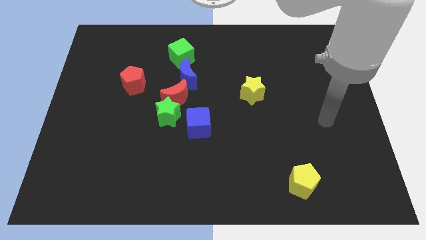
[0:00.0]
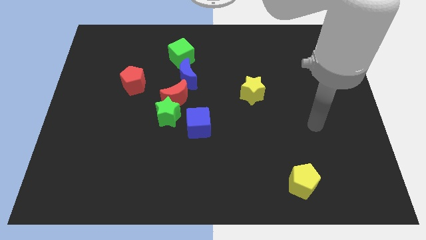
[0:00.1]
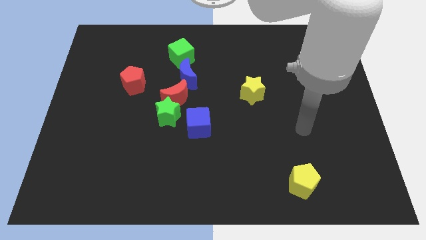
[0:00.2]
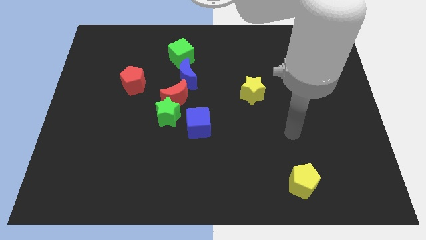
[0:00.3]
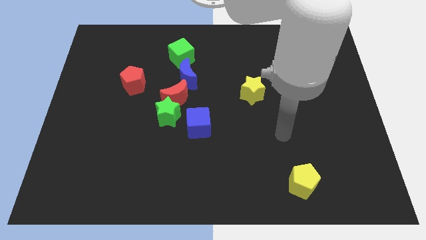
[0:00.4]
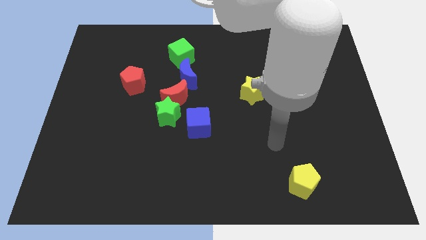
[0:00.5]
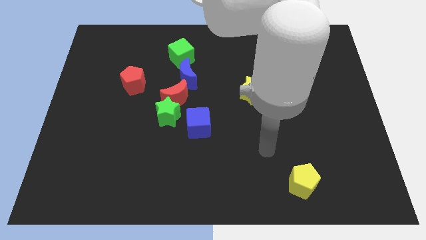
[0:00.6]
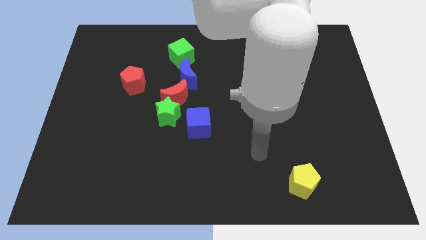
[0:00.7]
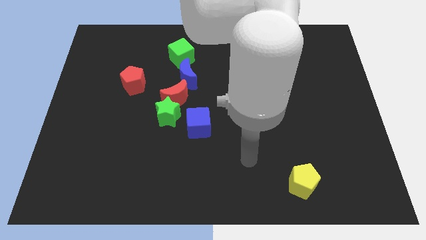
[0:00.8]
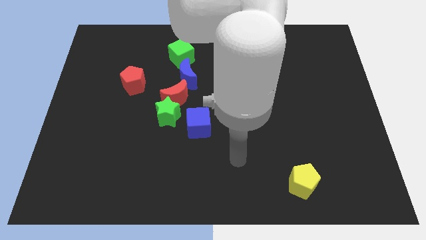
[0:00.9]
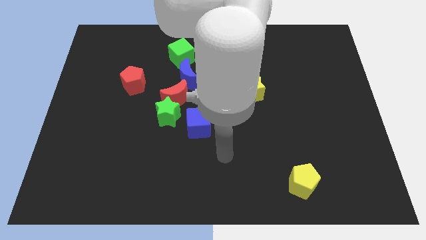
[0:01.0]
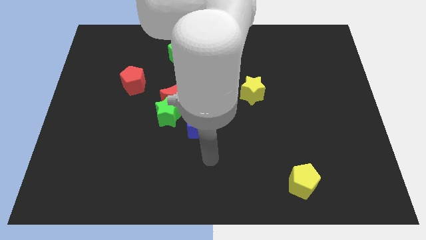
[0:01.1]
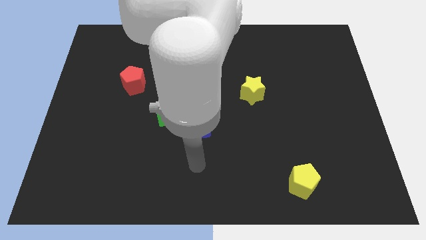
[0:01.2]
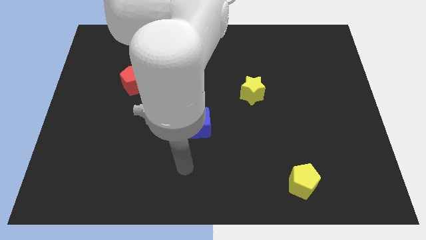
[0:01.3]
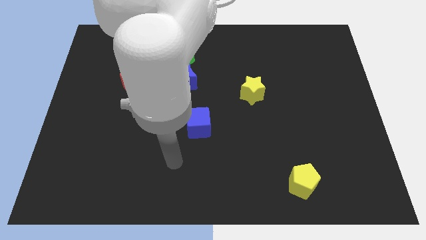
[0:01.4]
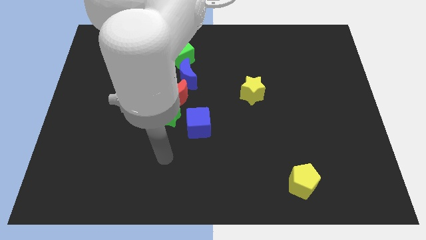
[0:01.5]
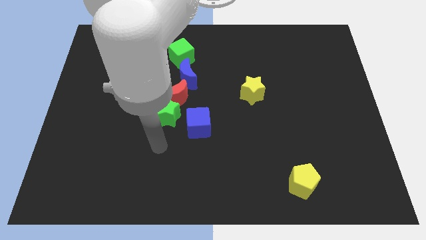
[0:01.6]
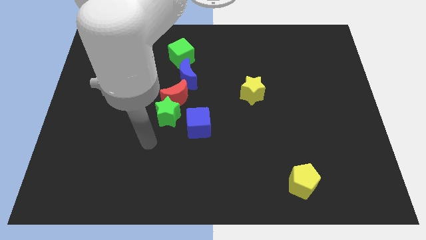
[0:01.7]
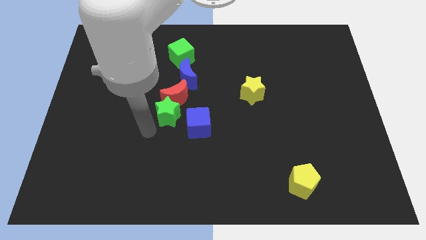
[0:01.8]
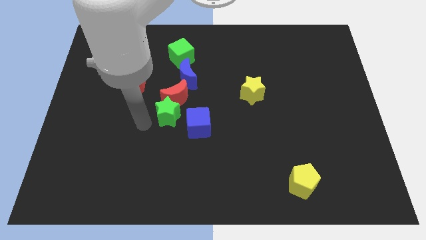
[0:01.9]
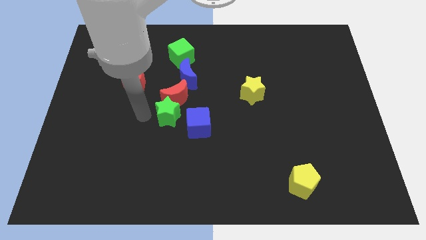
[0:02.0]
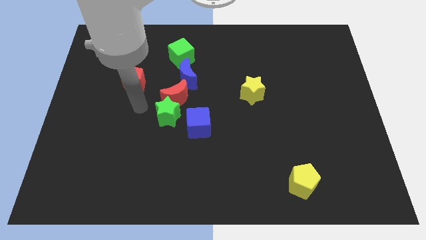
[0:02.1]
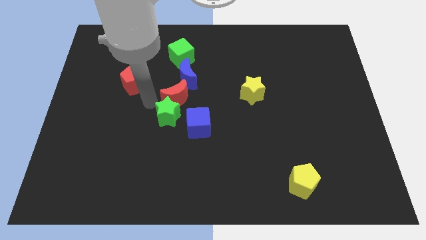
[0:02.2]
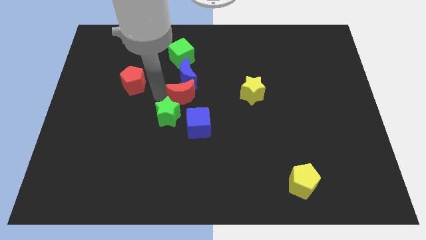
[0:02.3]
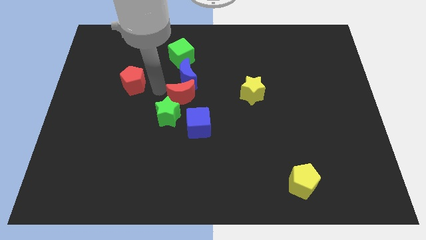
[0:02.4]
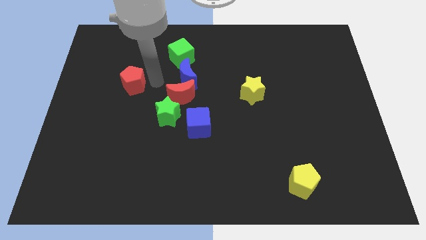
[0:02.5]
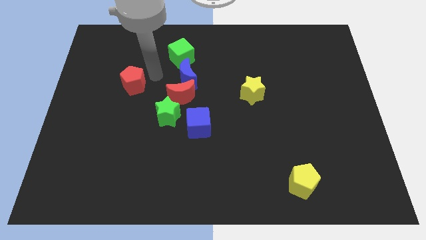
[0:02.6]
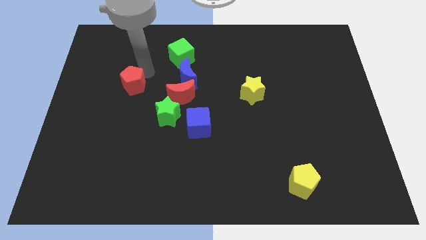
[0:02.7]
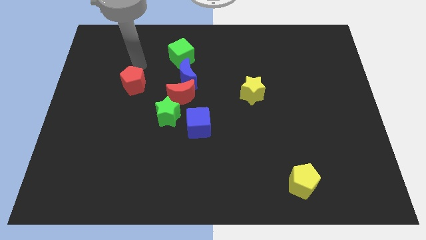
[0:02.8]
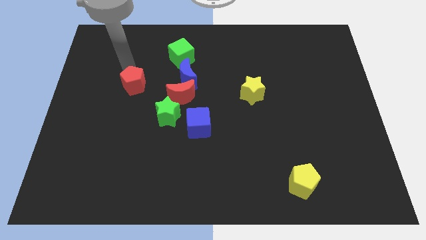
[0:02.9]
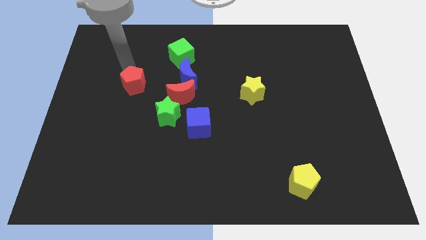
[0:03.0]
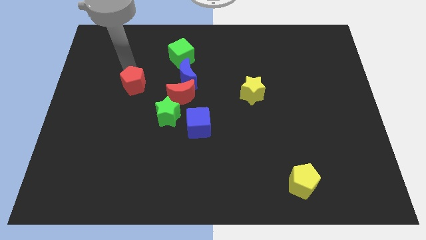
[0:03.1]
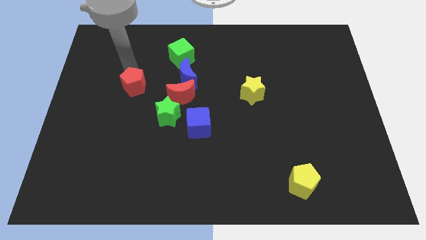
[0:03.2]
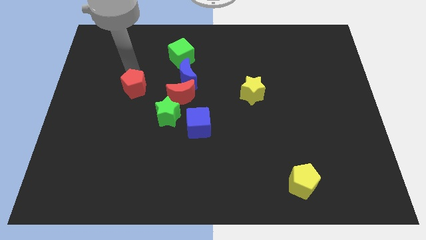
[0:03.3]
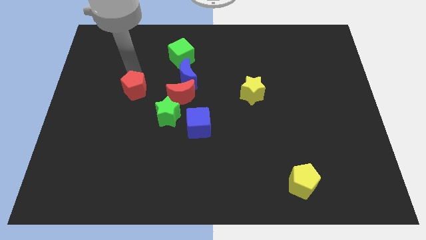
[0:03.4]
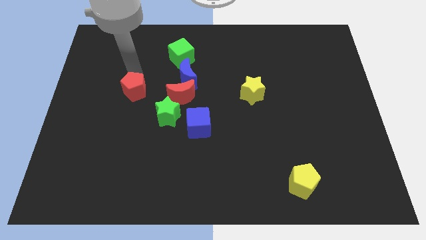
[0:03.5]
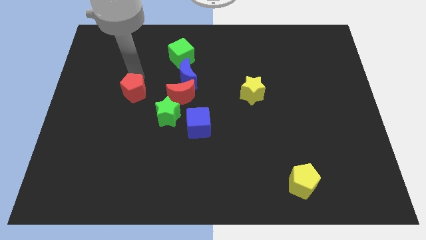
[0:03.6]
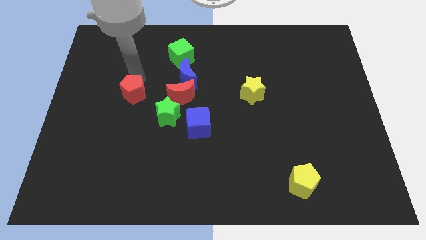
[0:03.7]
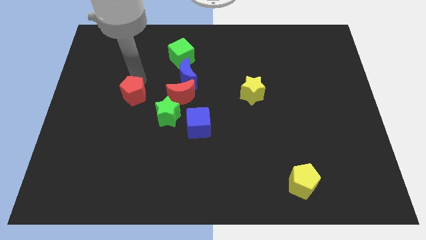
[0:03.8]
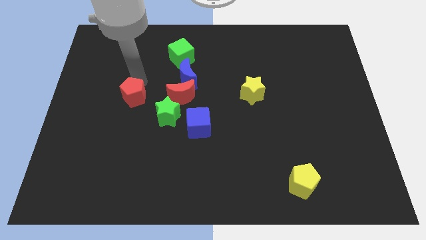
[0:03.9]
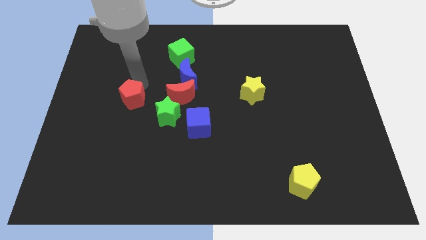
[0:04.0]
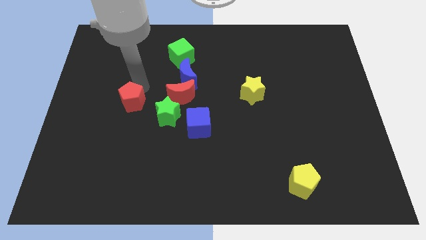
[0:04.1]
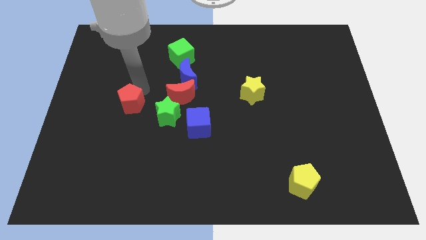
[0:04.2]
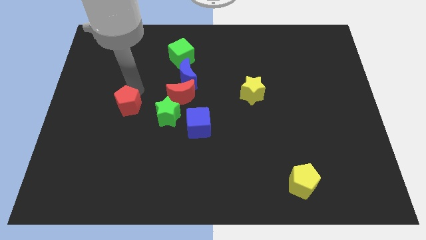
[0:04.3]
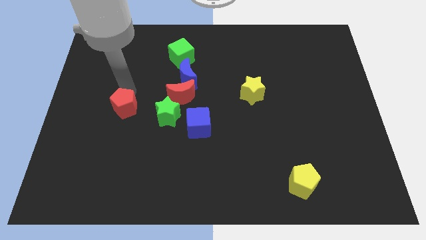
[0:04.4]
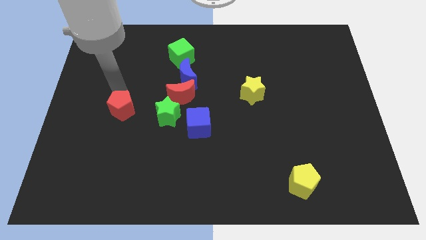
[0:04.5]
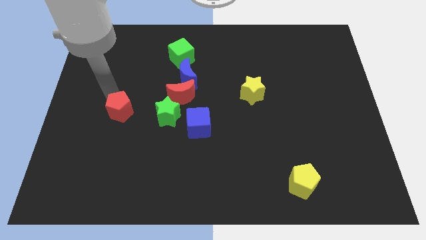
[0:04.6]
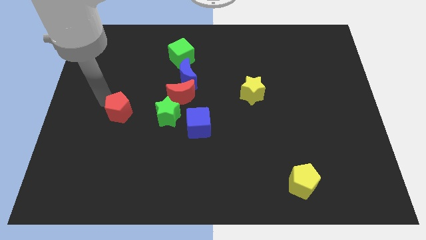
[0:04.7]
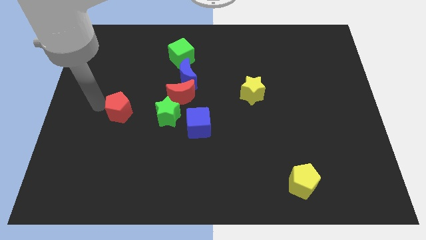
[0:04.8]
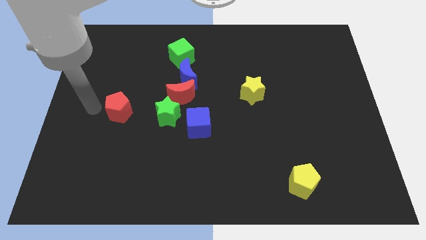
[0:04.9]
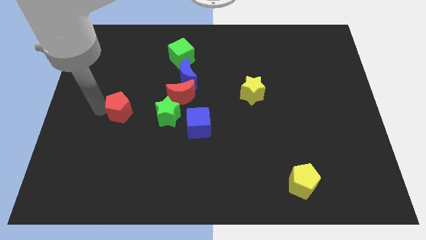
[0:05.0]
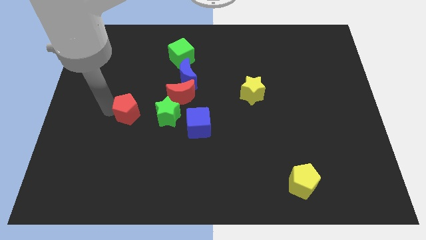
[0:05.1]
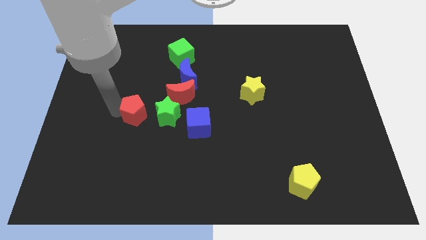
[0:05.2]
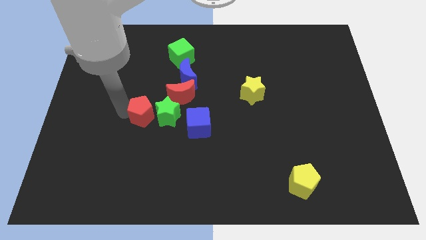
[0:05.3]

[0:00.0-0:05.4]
push the red pentagon diagonally down and to the left of the red moon

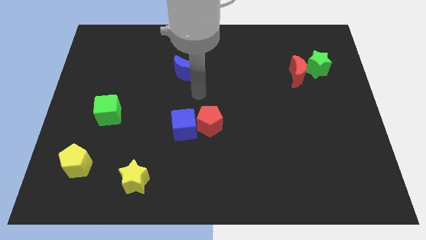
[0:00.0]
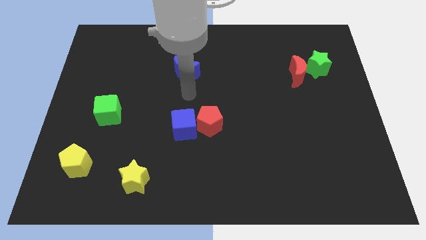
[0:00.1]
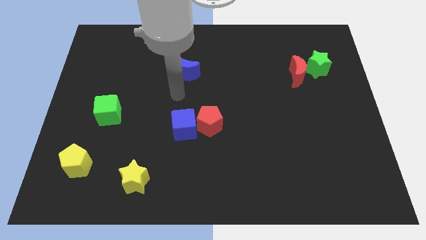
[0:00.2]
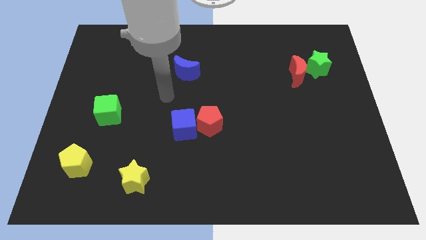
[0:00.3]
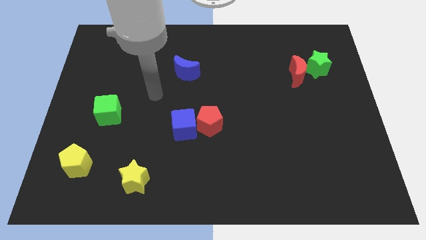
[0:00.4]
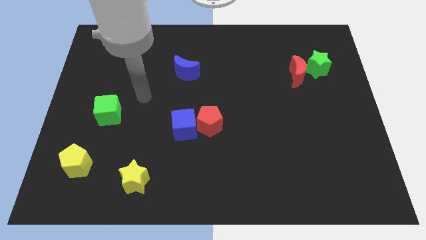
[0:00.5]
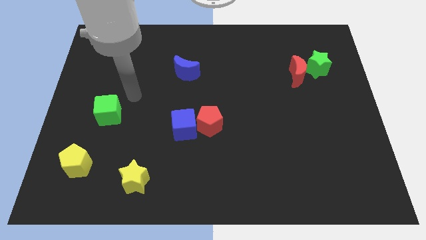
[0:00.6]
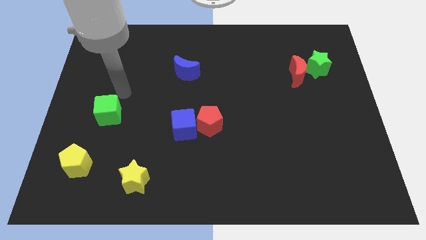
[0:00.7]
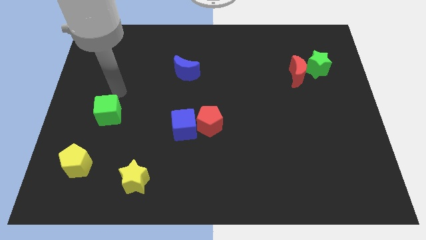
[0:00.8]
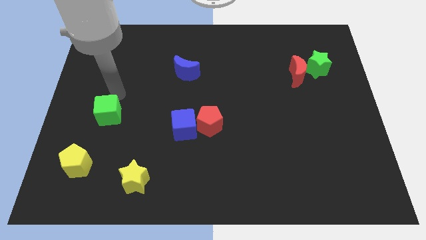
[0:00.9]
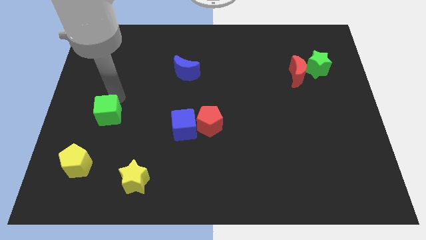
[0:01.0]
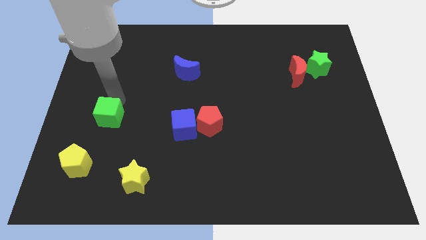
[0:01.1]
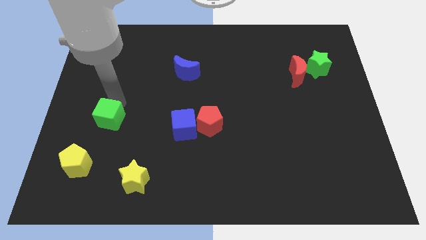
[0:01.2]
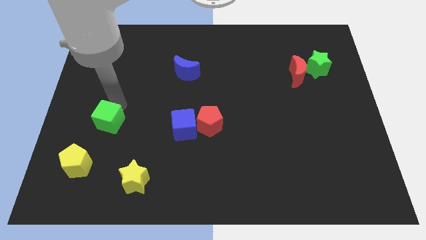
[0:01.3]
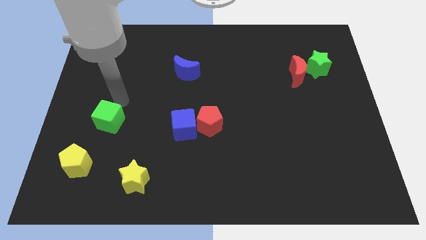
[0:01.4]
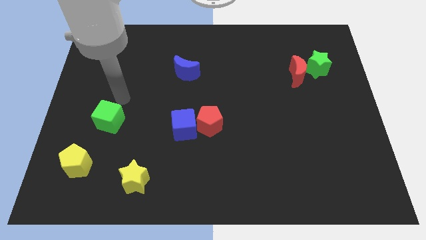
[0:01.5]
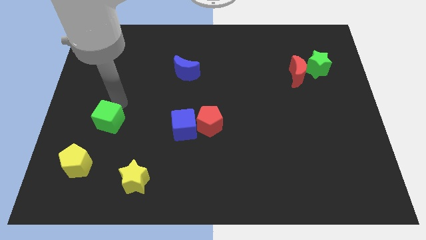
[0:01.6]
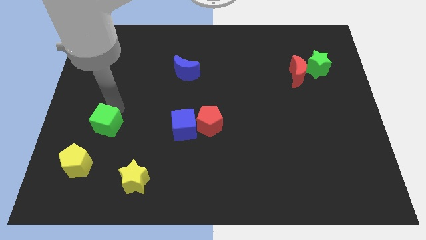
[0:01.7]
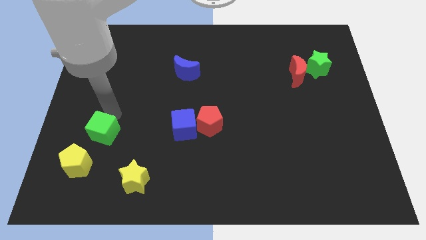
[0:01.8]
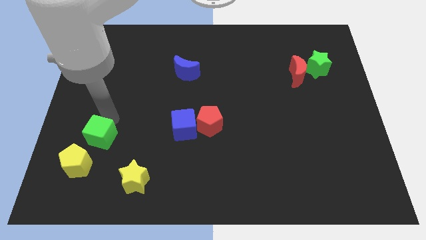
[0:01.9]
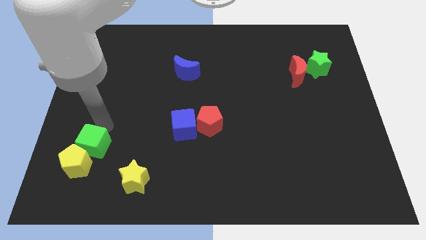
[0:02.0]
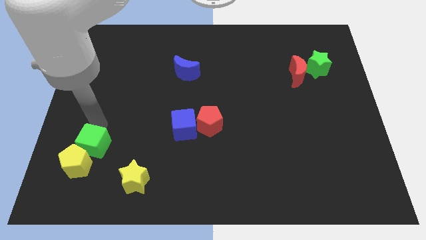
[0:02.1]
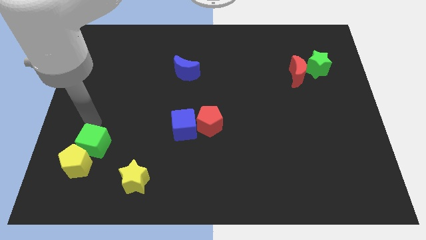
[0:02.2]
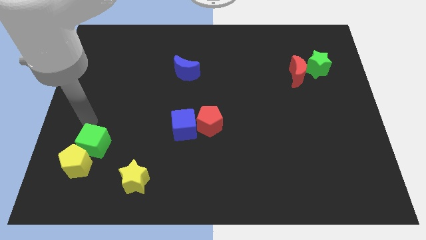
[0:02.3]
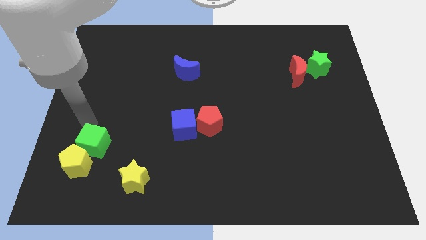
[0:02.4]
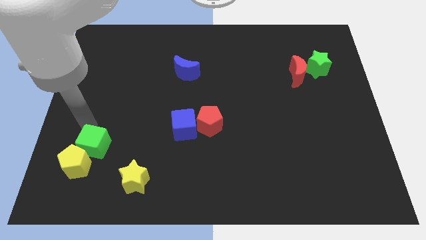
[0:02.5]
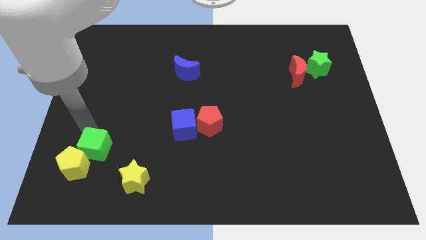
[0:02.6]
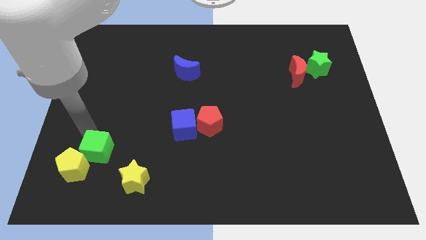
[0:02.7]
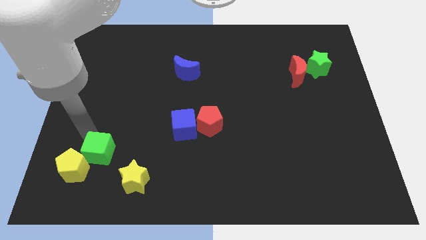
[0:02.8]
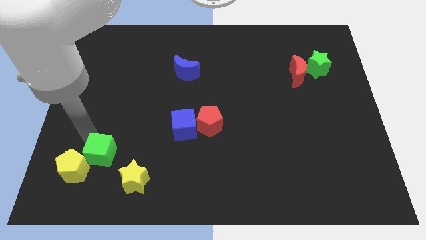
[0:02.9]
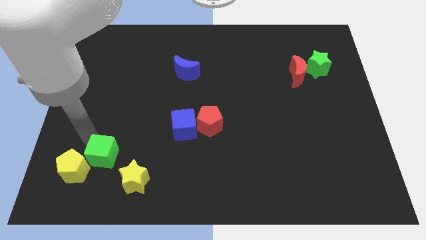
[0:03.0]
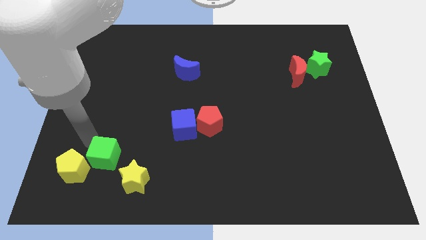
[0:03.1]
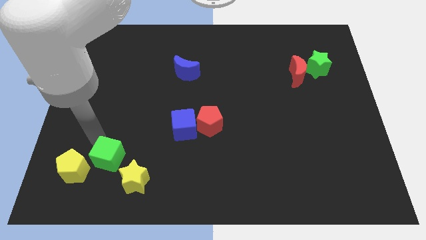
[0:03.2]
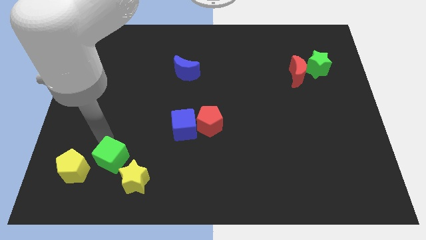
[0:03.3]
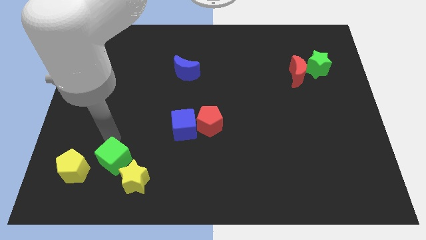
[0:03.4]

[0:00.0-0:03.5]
slide the green cube left of the yellow star
